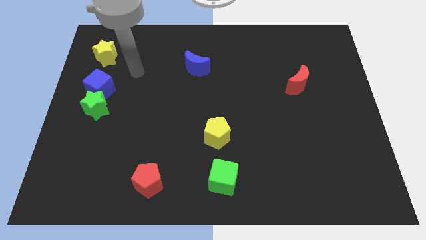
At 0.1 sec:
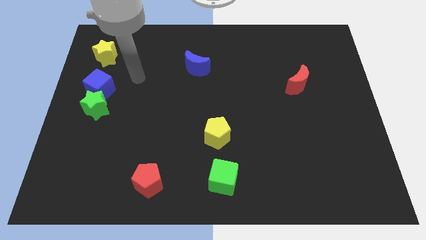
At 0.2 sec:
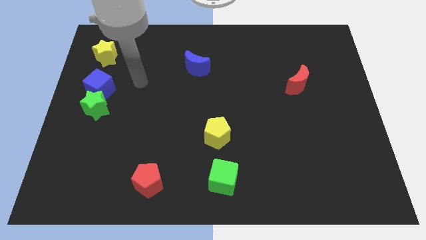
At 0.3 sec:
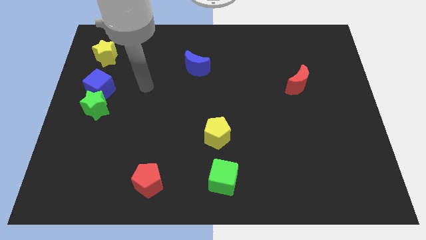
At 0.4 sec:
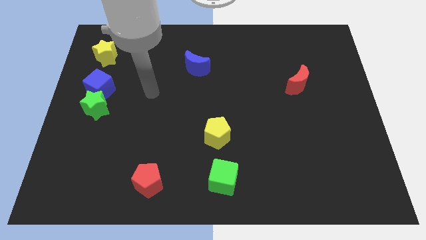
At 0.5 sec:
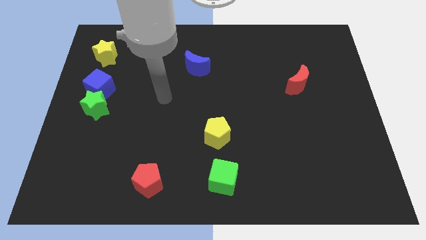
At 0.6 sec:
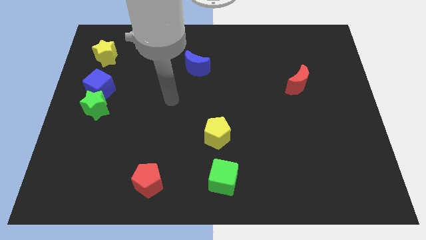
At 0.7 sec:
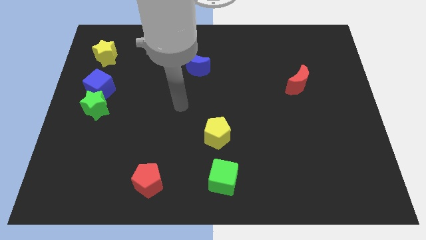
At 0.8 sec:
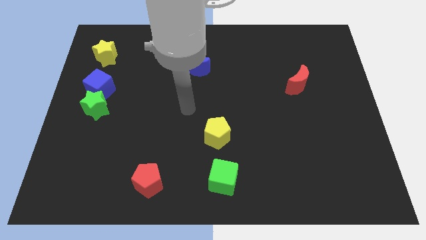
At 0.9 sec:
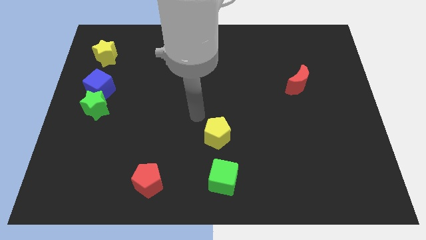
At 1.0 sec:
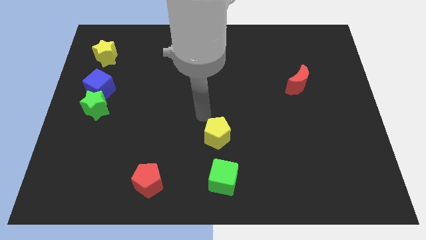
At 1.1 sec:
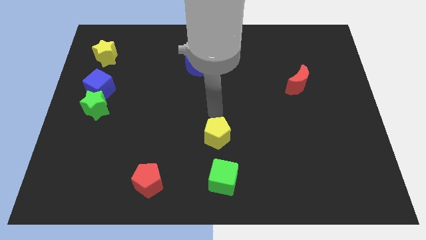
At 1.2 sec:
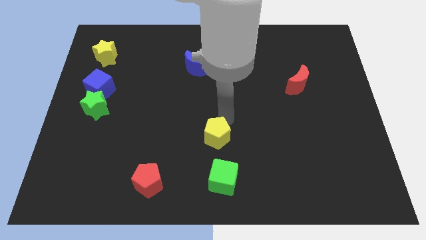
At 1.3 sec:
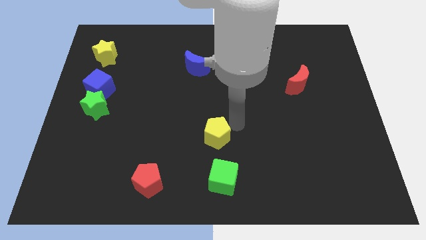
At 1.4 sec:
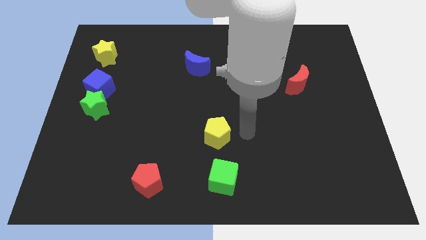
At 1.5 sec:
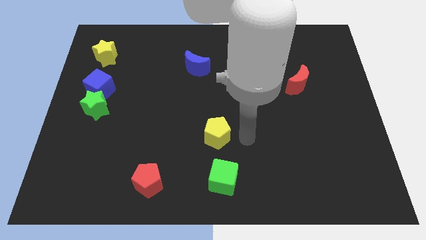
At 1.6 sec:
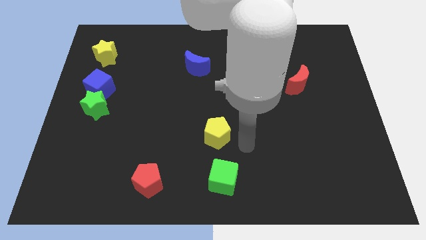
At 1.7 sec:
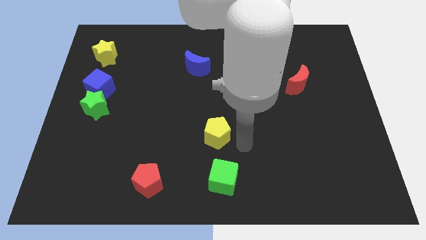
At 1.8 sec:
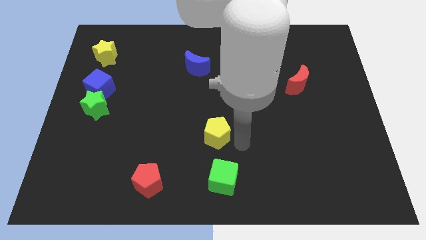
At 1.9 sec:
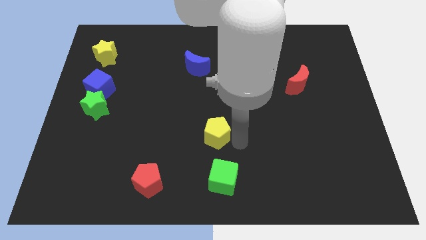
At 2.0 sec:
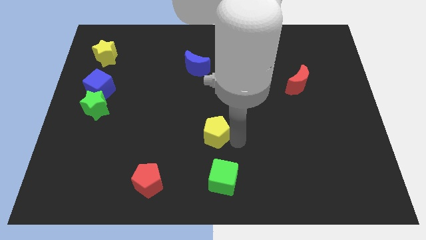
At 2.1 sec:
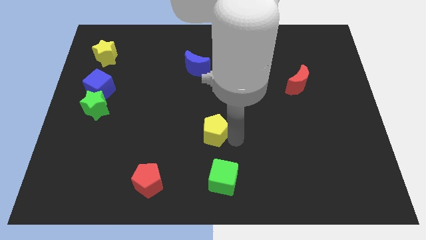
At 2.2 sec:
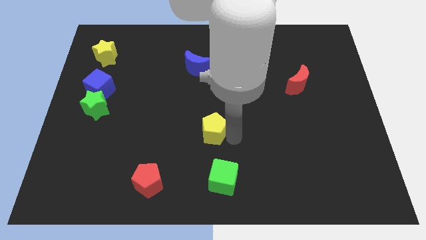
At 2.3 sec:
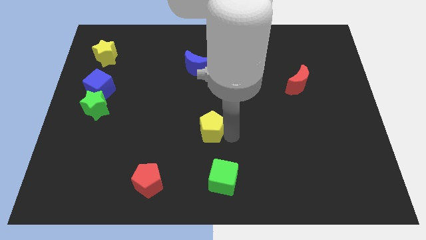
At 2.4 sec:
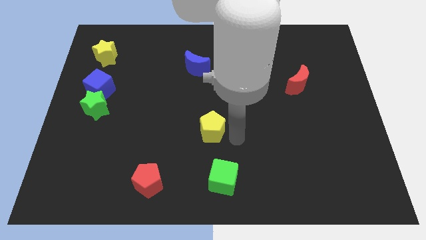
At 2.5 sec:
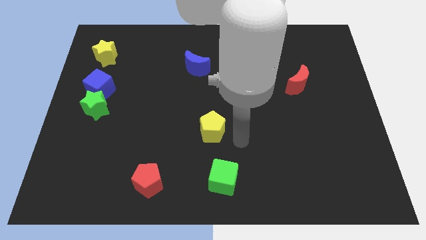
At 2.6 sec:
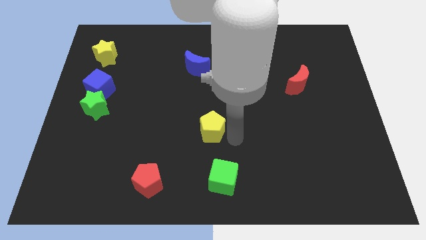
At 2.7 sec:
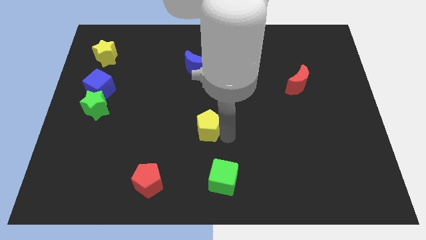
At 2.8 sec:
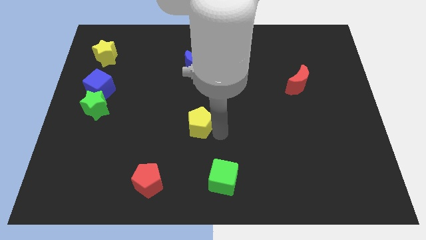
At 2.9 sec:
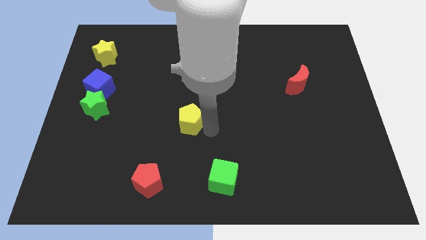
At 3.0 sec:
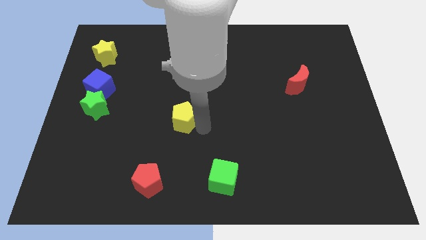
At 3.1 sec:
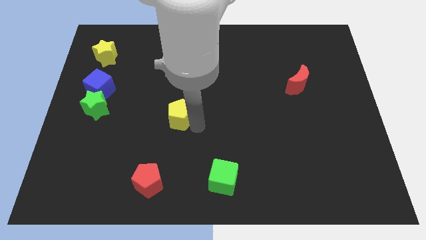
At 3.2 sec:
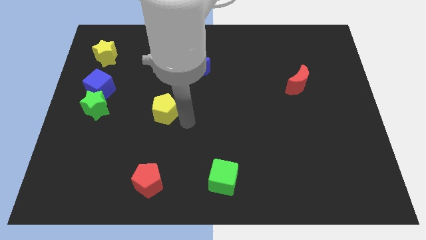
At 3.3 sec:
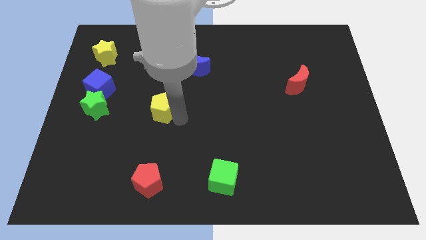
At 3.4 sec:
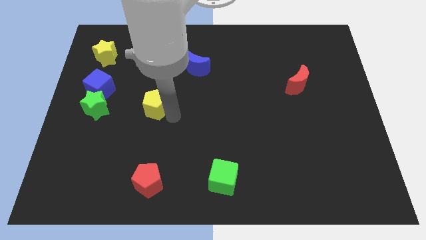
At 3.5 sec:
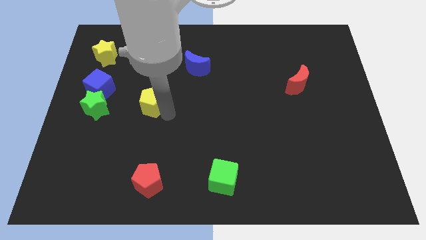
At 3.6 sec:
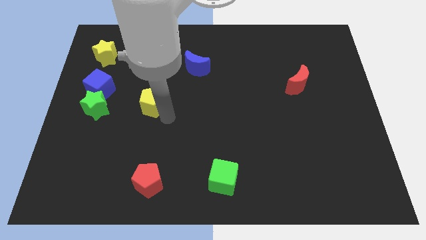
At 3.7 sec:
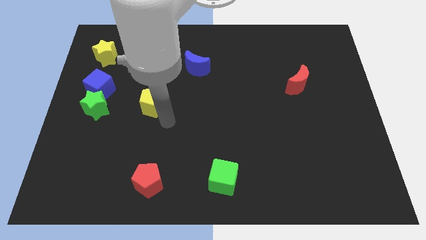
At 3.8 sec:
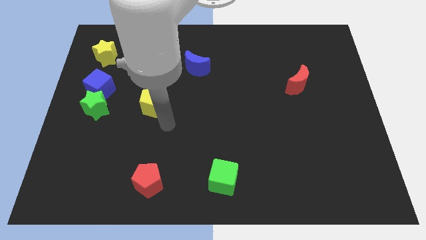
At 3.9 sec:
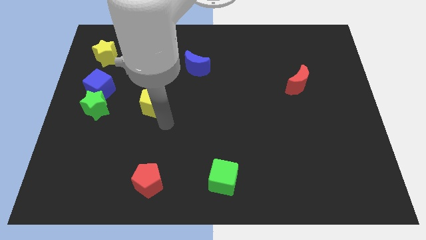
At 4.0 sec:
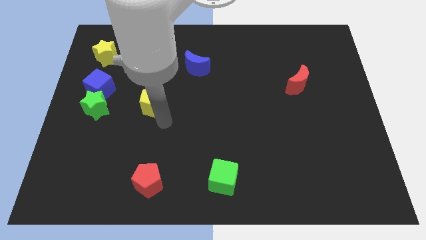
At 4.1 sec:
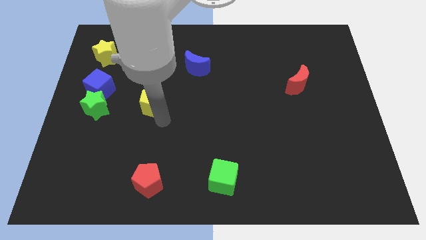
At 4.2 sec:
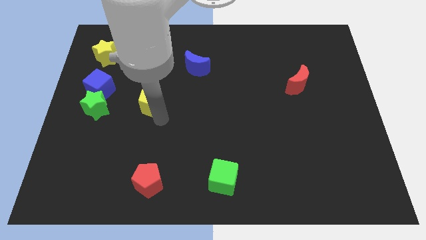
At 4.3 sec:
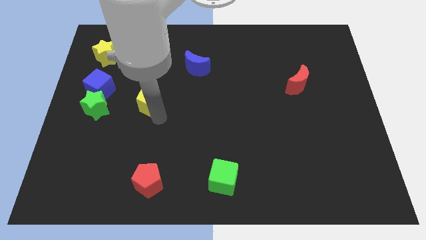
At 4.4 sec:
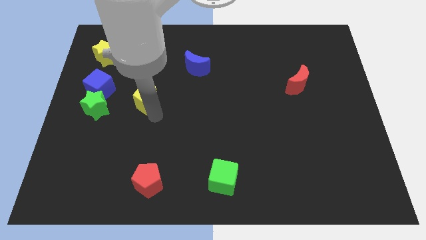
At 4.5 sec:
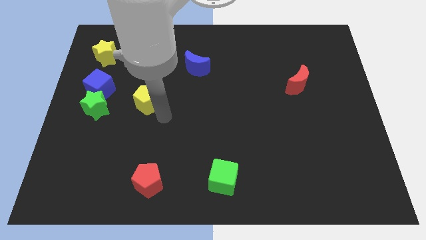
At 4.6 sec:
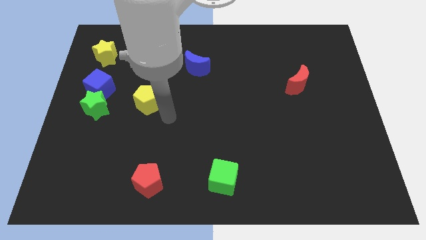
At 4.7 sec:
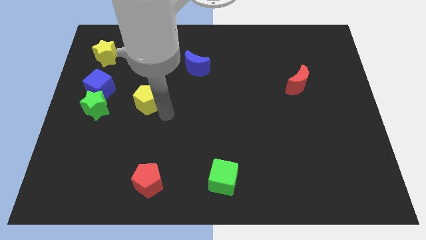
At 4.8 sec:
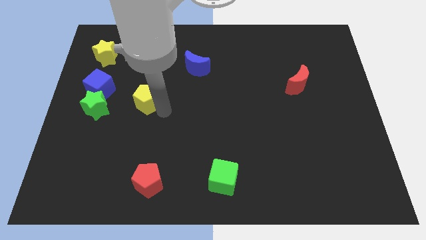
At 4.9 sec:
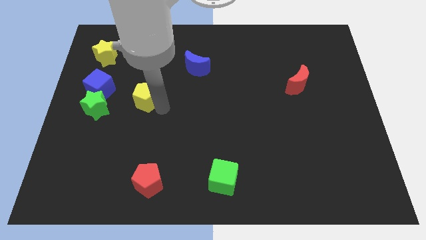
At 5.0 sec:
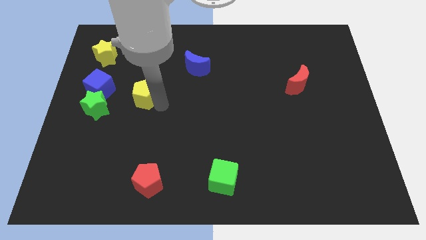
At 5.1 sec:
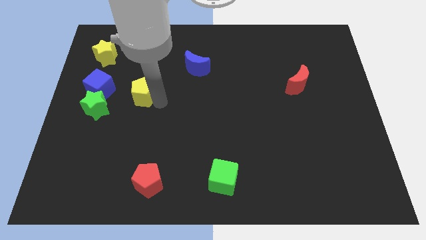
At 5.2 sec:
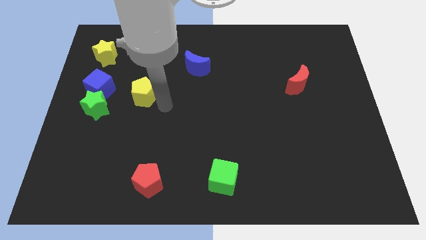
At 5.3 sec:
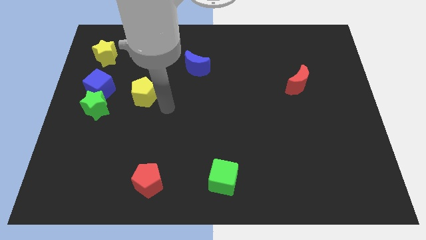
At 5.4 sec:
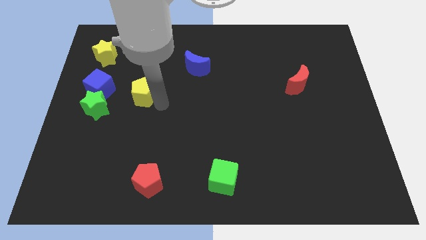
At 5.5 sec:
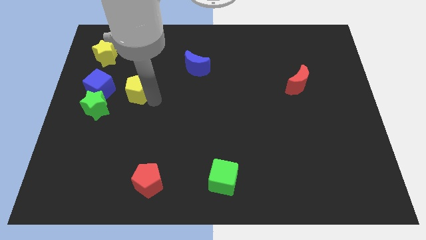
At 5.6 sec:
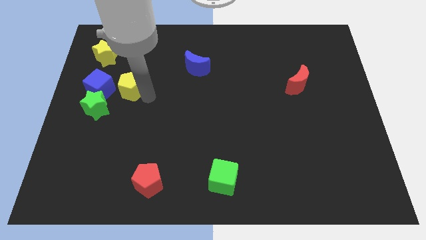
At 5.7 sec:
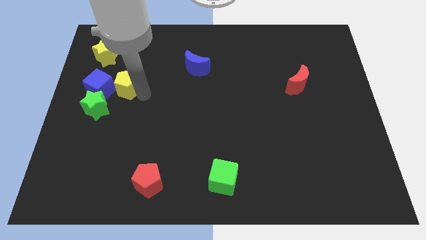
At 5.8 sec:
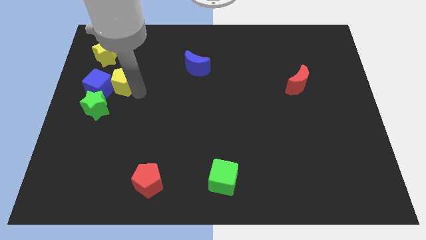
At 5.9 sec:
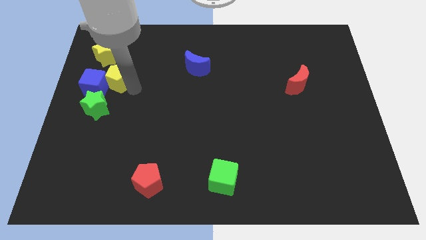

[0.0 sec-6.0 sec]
push the yellow pentagon to the top of the green star
